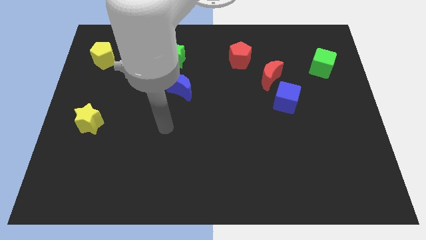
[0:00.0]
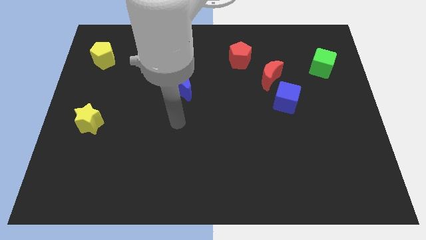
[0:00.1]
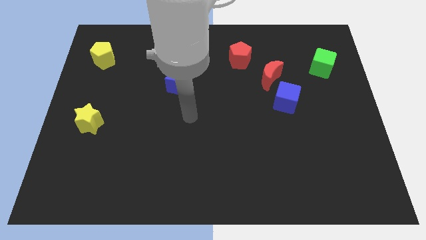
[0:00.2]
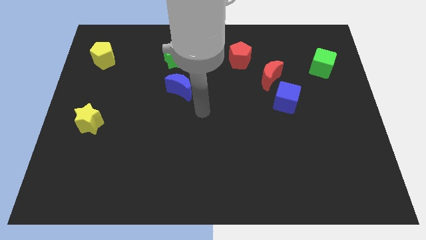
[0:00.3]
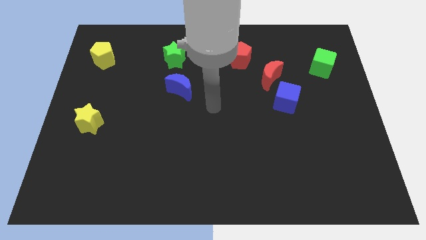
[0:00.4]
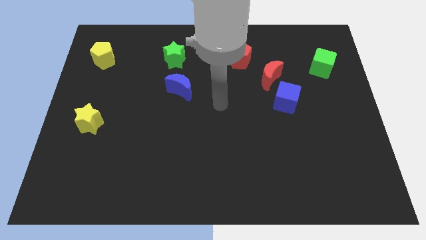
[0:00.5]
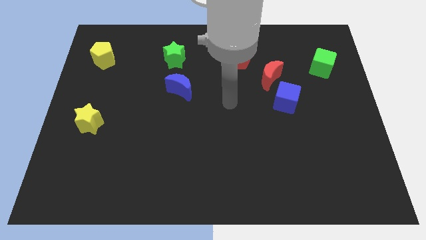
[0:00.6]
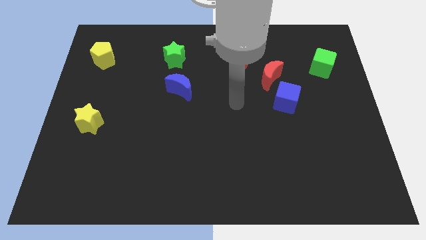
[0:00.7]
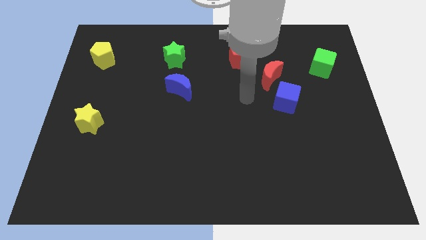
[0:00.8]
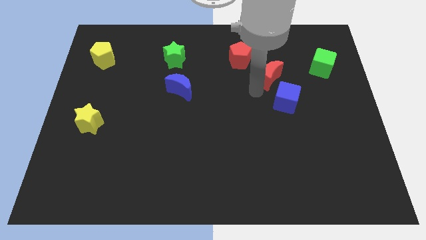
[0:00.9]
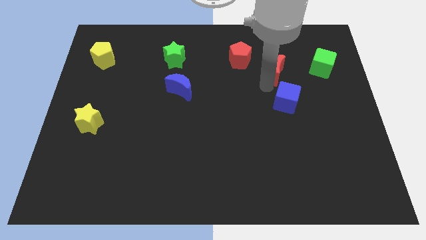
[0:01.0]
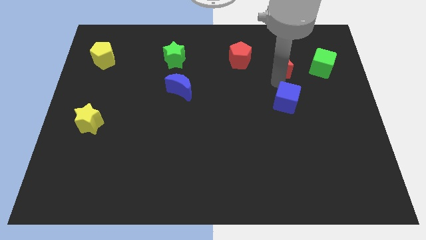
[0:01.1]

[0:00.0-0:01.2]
pull the blue cube apart from the red moon

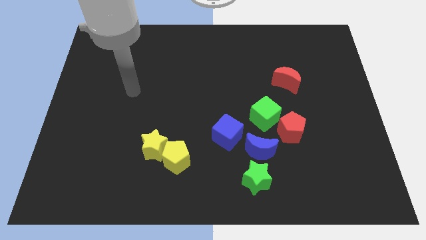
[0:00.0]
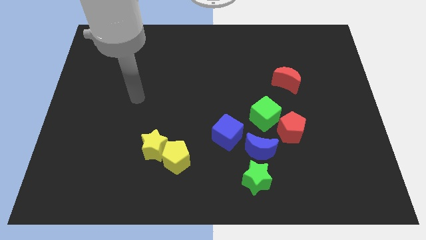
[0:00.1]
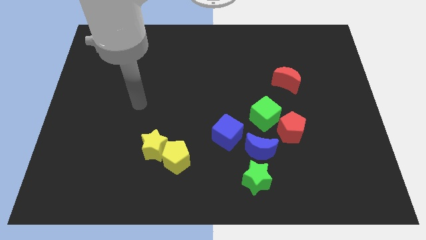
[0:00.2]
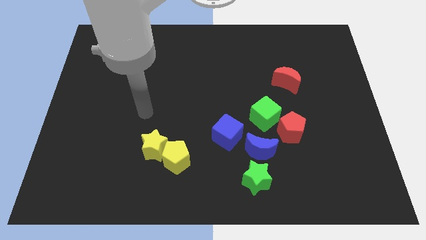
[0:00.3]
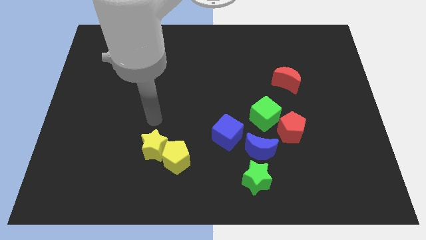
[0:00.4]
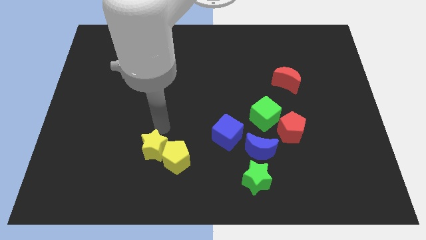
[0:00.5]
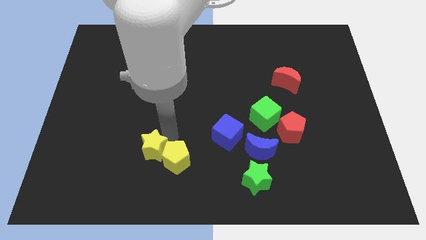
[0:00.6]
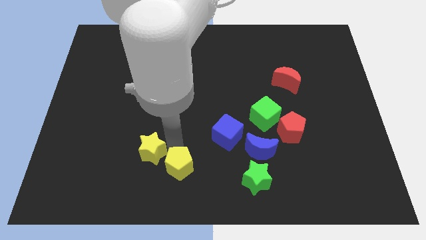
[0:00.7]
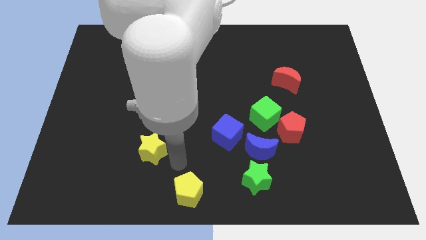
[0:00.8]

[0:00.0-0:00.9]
pull the yellow star apart from the yellow pentagon

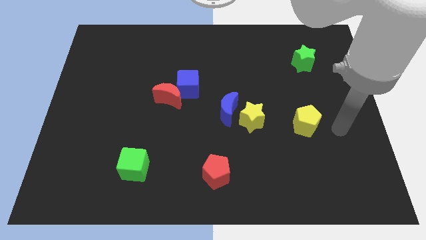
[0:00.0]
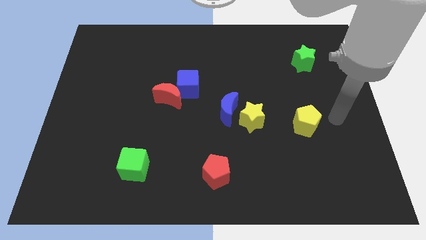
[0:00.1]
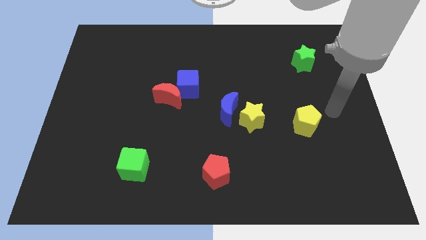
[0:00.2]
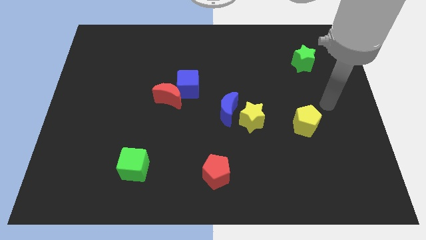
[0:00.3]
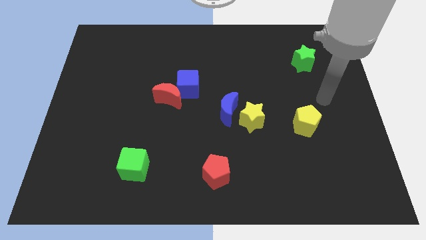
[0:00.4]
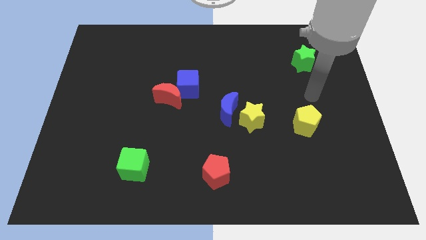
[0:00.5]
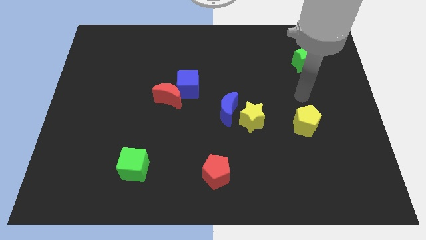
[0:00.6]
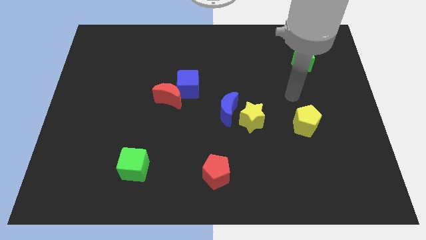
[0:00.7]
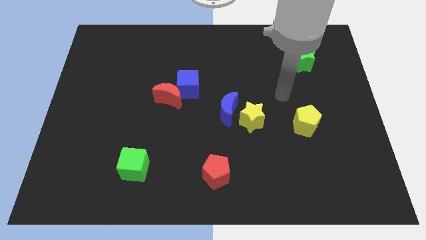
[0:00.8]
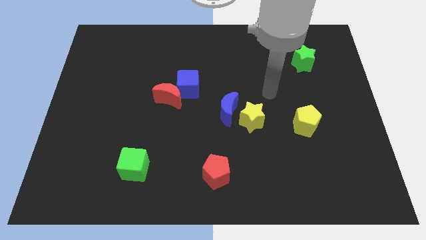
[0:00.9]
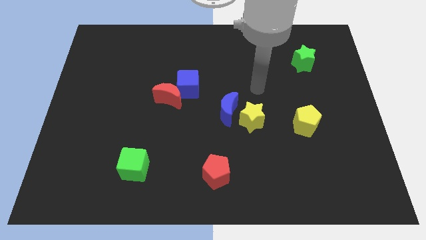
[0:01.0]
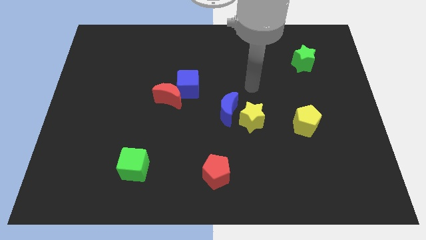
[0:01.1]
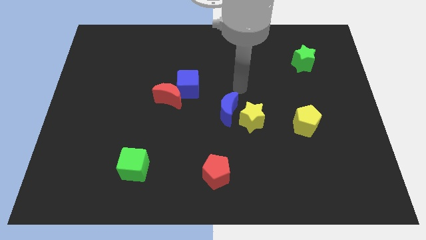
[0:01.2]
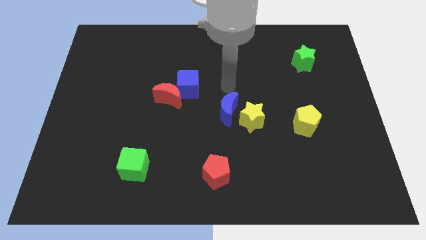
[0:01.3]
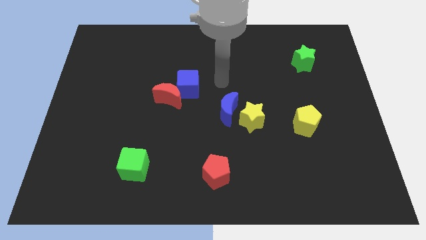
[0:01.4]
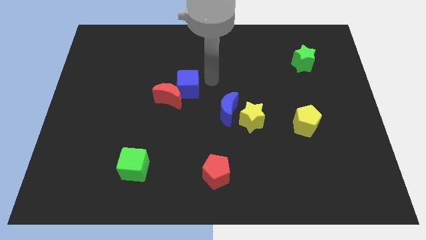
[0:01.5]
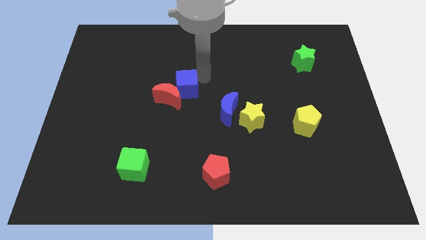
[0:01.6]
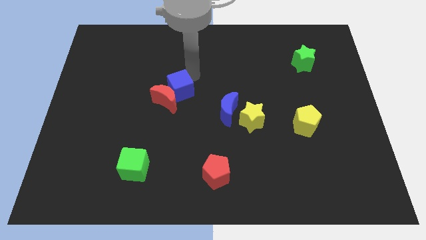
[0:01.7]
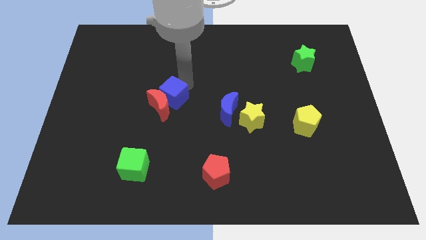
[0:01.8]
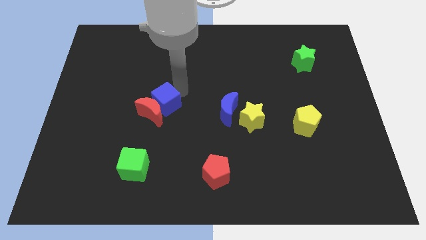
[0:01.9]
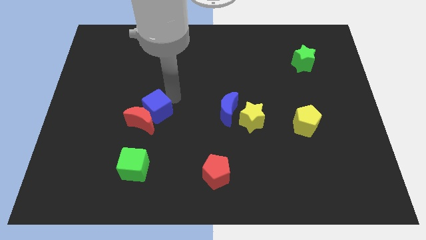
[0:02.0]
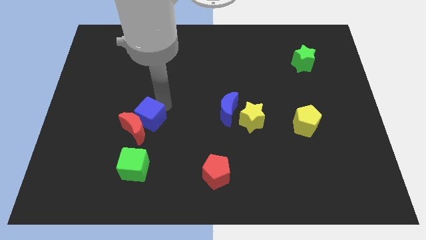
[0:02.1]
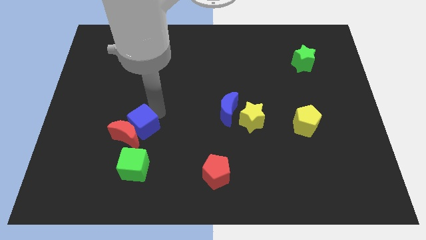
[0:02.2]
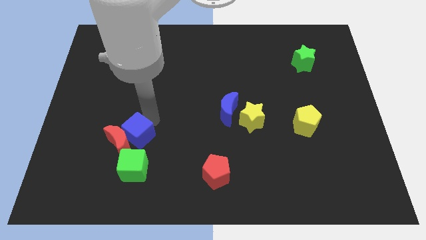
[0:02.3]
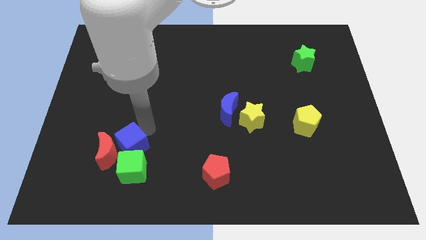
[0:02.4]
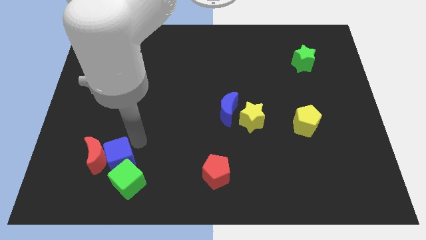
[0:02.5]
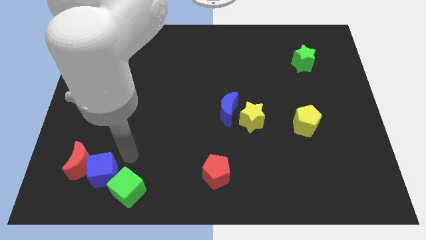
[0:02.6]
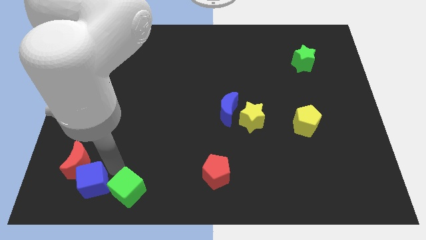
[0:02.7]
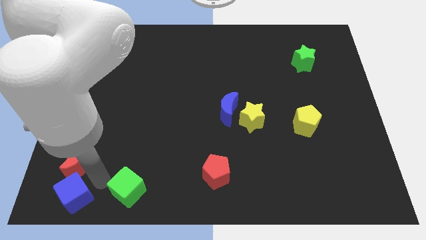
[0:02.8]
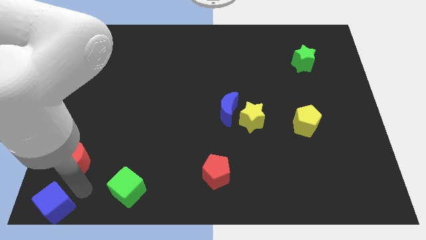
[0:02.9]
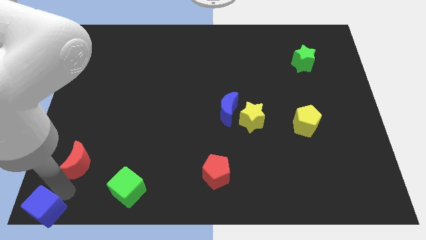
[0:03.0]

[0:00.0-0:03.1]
move the red moon away from the blue cube

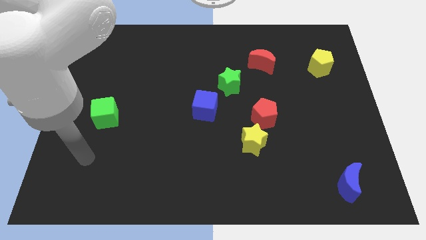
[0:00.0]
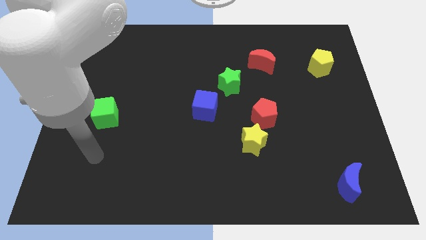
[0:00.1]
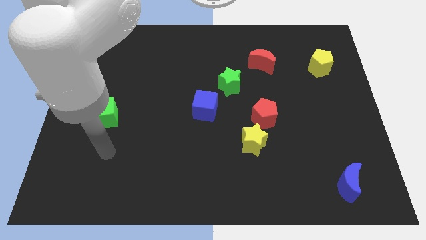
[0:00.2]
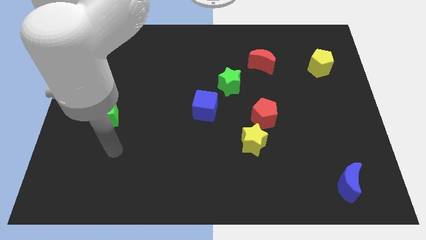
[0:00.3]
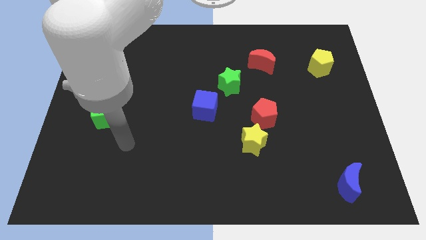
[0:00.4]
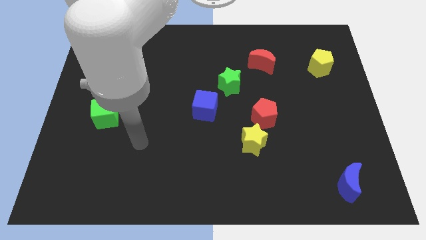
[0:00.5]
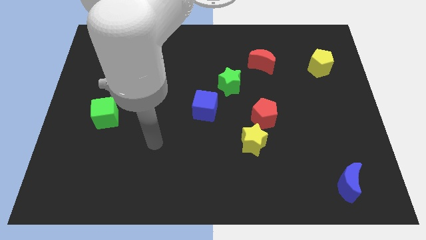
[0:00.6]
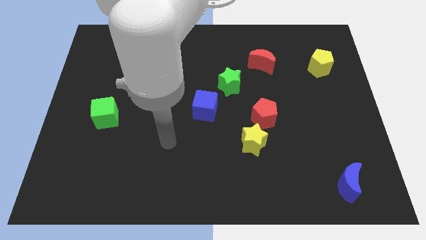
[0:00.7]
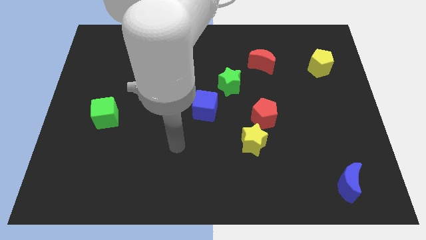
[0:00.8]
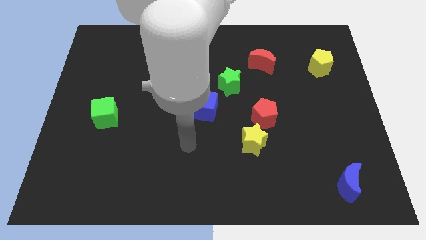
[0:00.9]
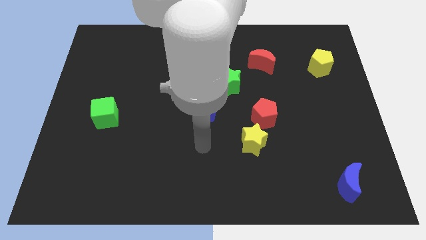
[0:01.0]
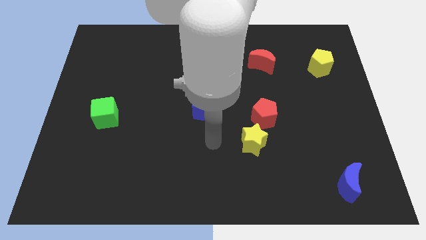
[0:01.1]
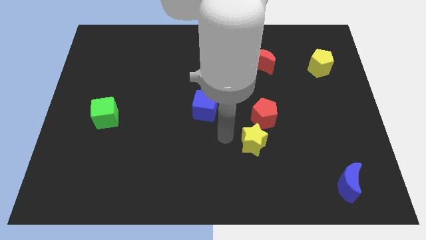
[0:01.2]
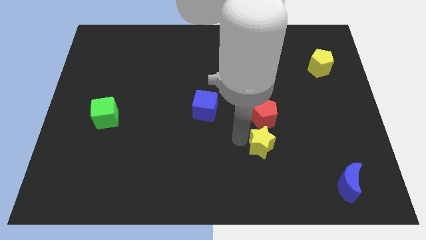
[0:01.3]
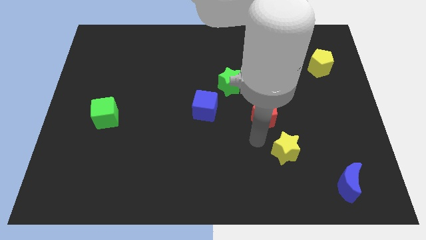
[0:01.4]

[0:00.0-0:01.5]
separate the red pentagon from the yellow star

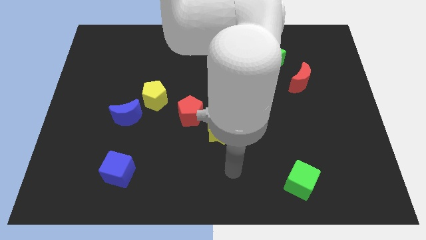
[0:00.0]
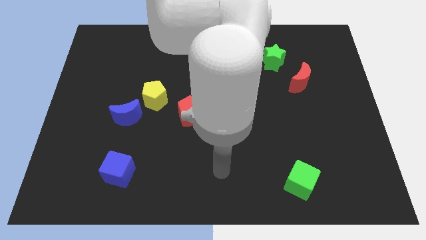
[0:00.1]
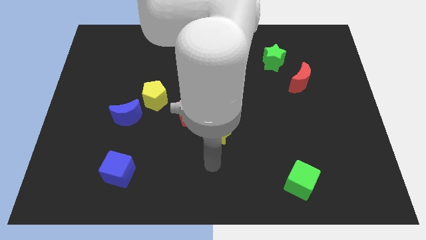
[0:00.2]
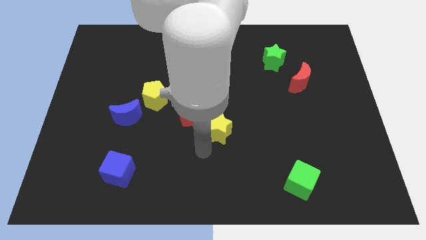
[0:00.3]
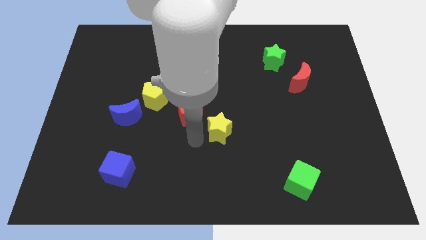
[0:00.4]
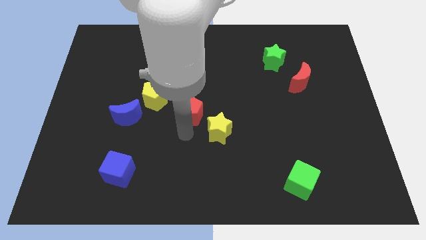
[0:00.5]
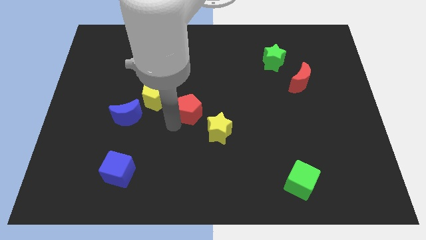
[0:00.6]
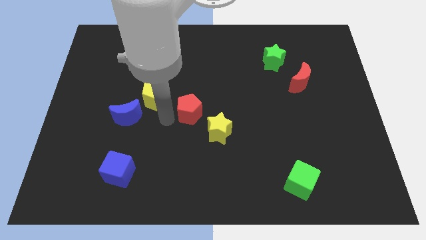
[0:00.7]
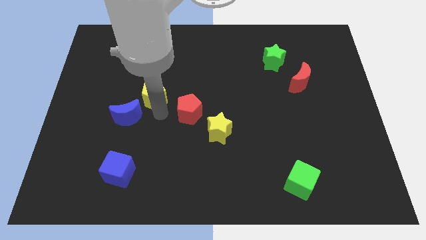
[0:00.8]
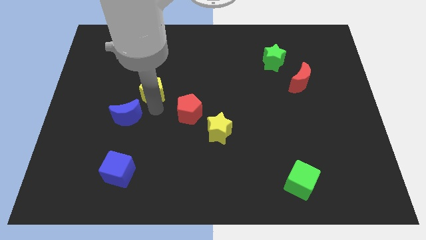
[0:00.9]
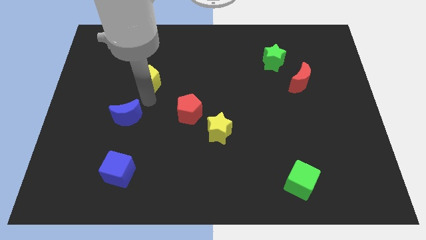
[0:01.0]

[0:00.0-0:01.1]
move the blue moon away from the yellow pentagon

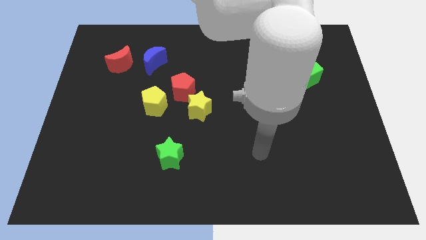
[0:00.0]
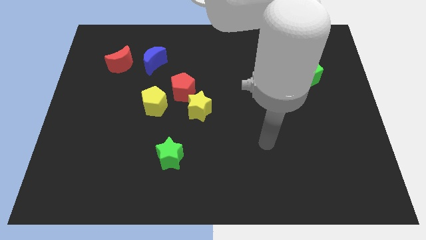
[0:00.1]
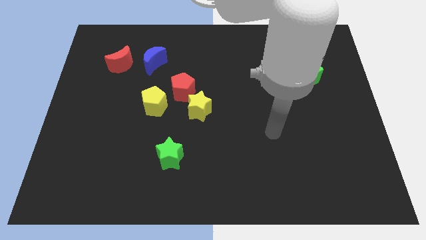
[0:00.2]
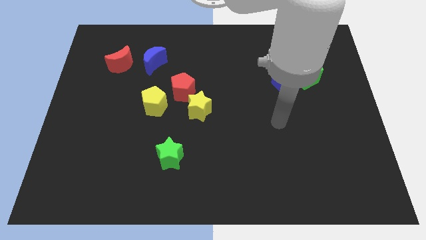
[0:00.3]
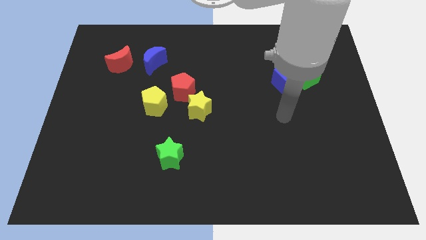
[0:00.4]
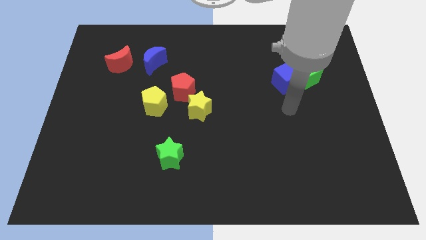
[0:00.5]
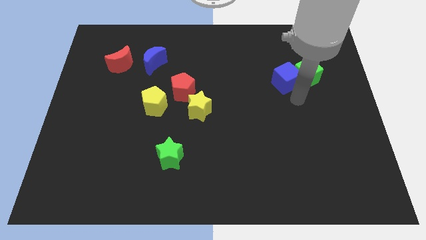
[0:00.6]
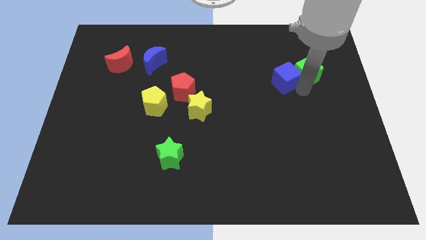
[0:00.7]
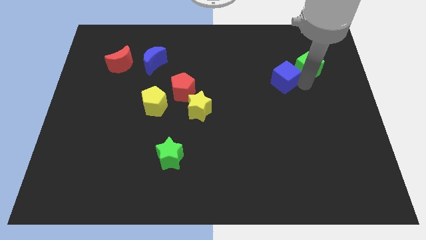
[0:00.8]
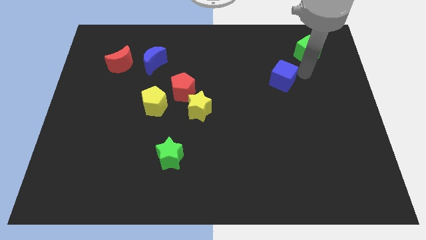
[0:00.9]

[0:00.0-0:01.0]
move the blue cube away from the green cube

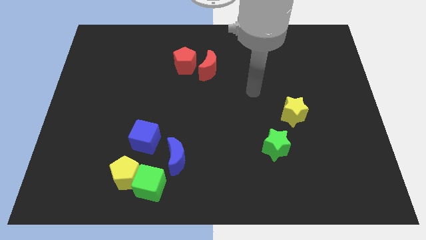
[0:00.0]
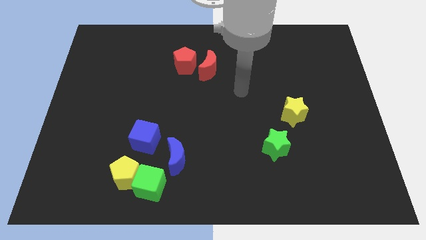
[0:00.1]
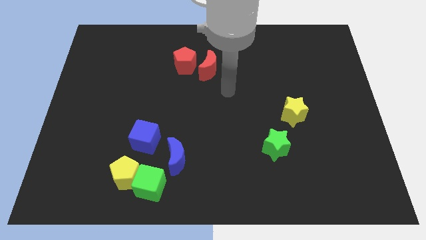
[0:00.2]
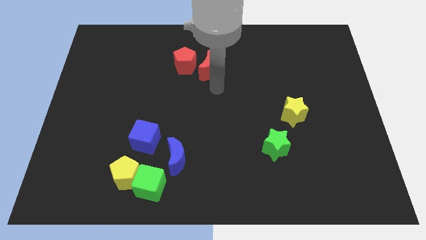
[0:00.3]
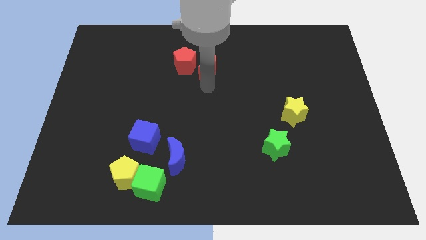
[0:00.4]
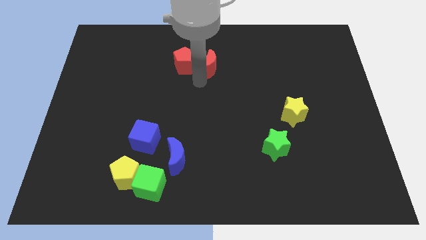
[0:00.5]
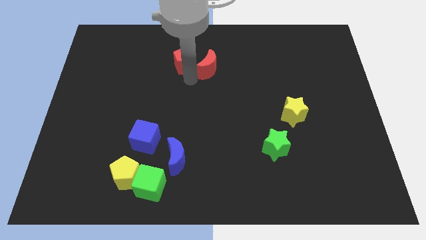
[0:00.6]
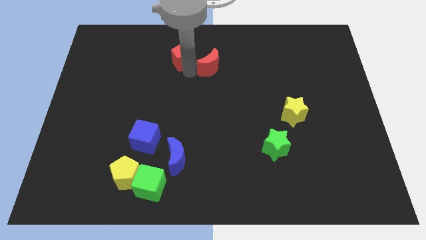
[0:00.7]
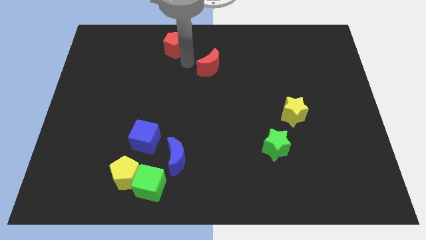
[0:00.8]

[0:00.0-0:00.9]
pull the red moon apart from the red pentagon
